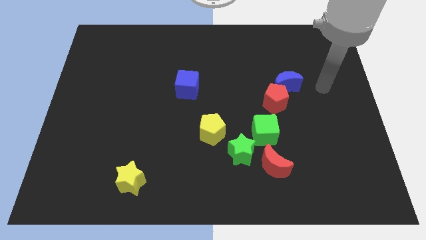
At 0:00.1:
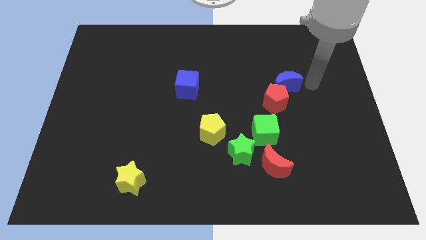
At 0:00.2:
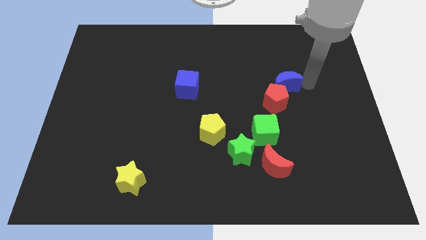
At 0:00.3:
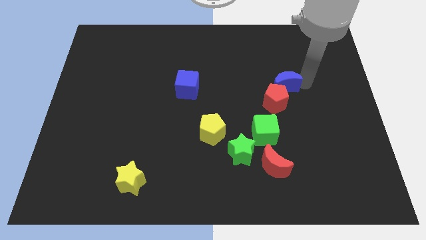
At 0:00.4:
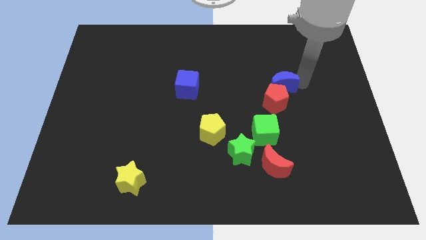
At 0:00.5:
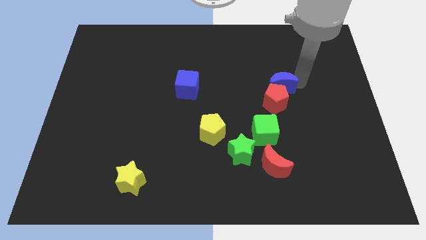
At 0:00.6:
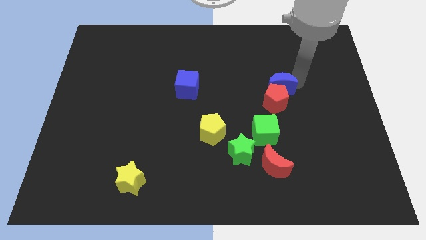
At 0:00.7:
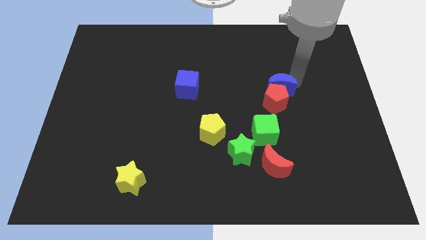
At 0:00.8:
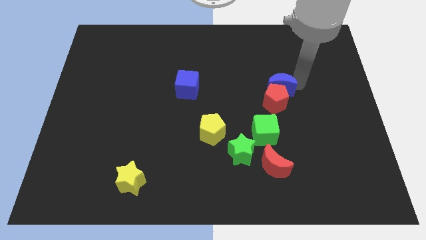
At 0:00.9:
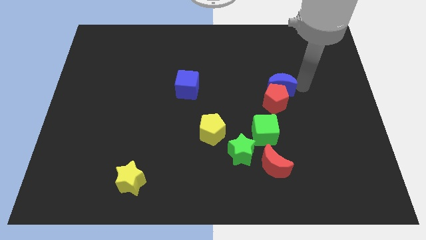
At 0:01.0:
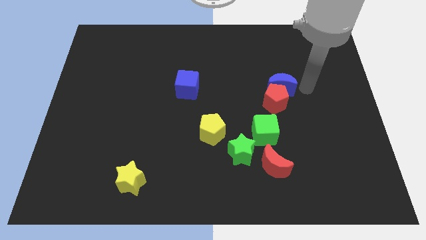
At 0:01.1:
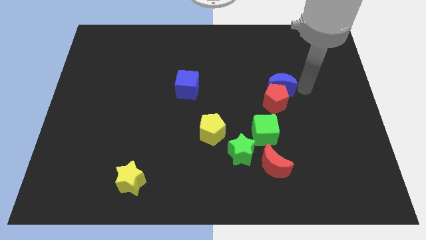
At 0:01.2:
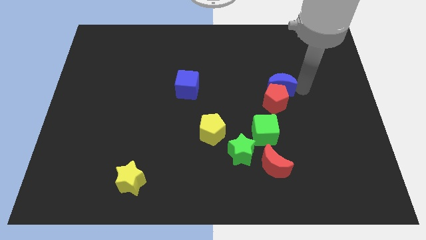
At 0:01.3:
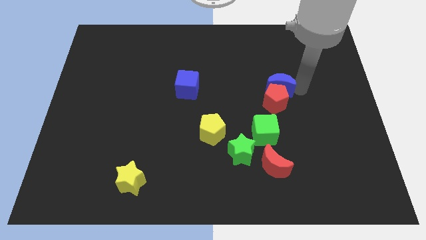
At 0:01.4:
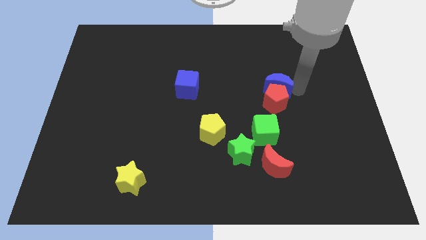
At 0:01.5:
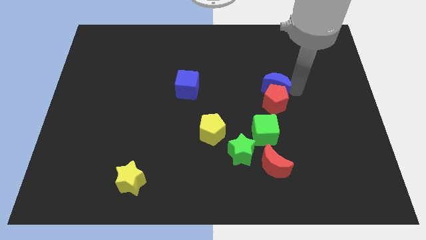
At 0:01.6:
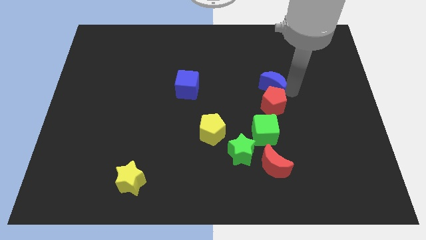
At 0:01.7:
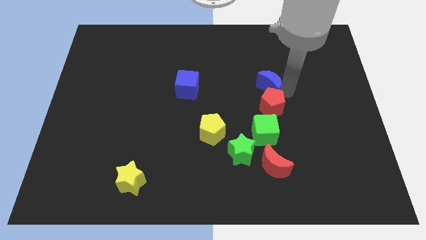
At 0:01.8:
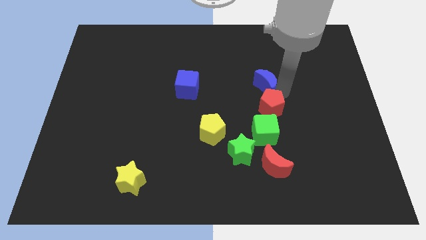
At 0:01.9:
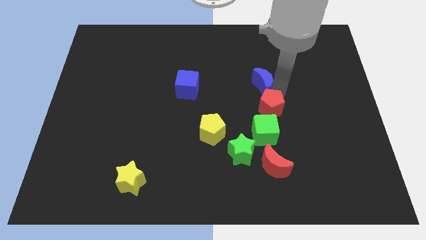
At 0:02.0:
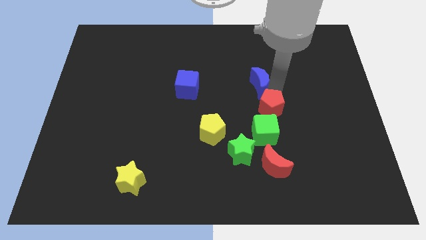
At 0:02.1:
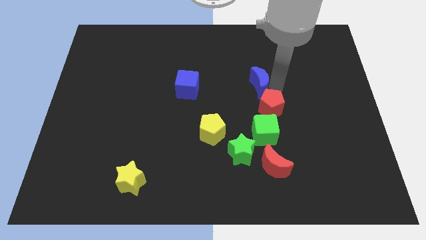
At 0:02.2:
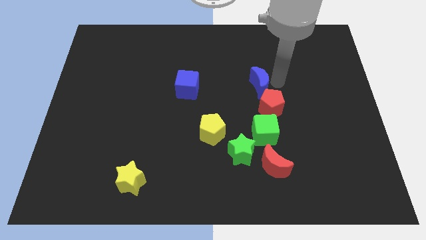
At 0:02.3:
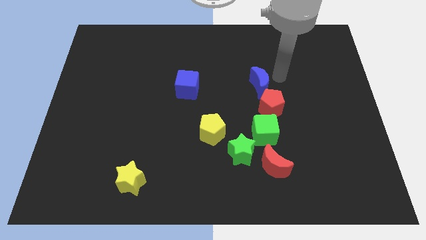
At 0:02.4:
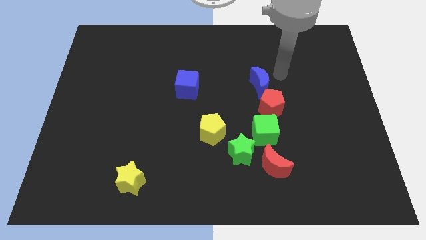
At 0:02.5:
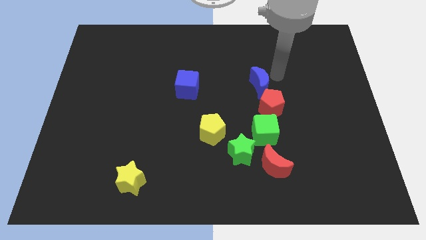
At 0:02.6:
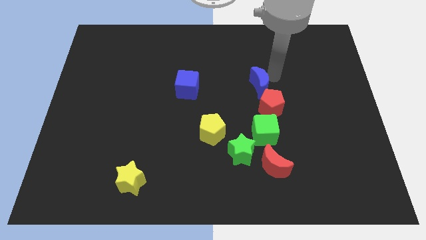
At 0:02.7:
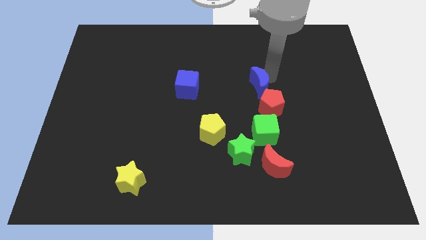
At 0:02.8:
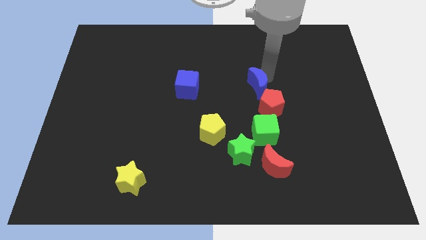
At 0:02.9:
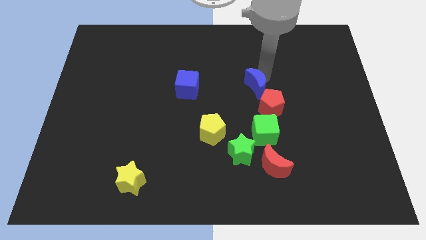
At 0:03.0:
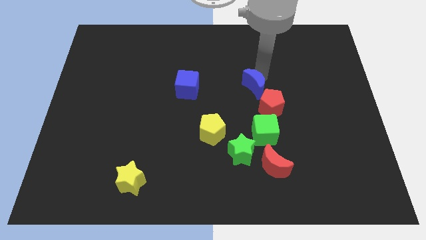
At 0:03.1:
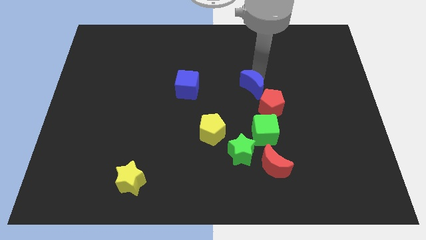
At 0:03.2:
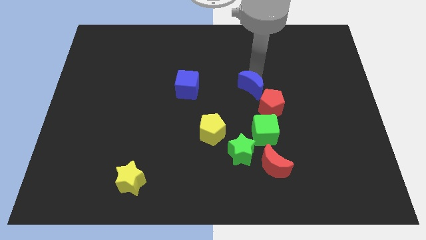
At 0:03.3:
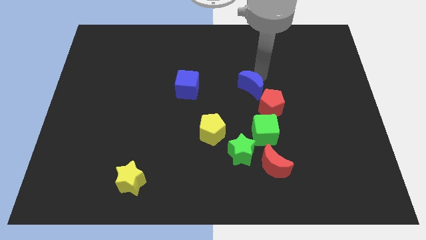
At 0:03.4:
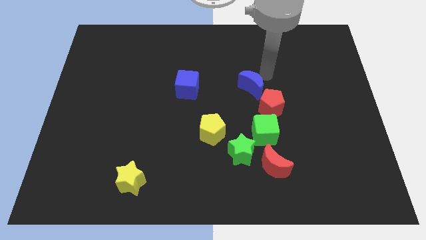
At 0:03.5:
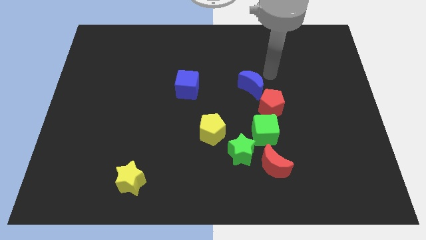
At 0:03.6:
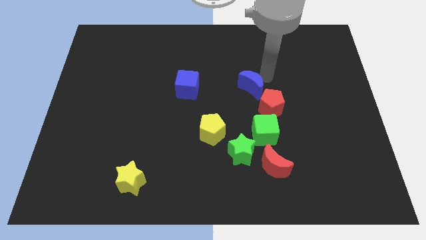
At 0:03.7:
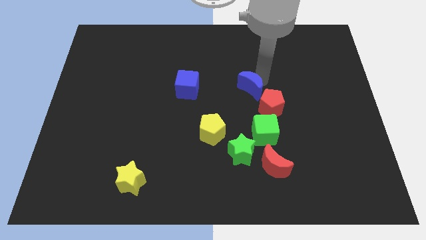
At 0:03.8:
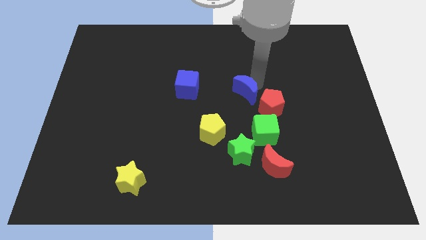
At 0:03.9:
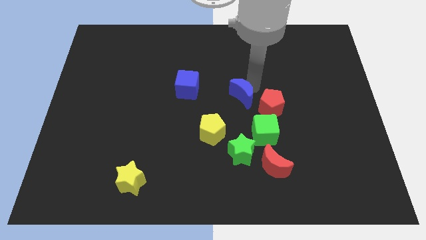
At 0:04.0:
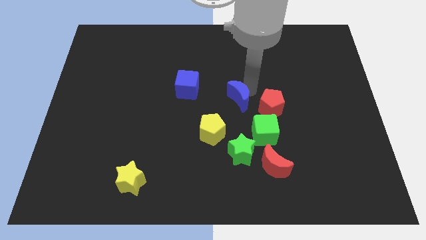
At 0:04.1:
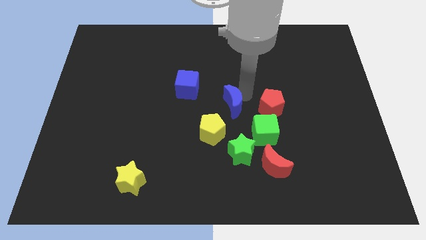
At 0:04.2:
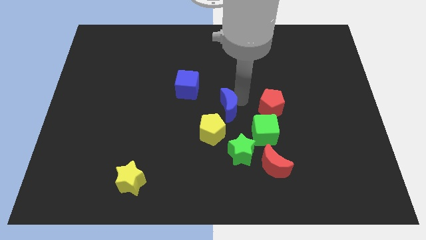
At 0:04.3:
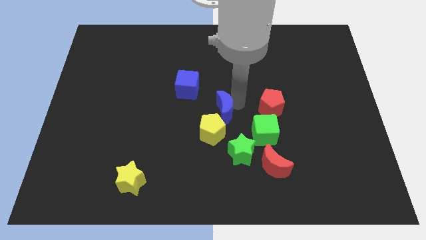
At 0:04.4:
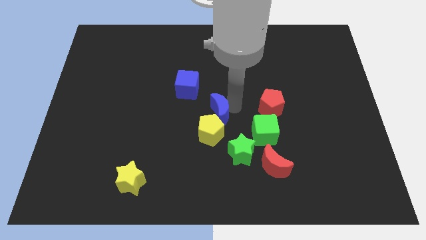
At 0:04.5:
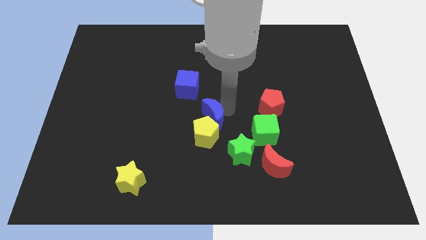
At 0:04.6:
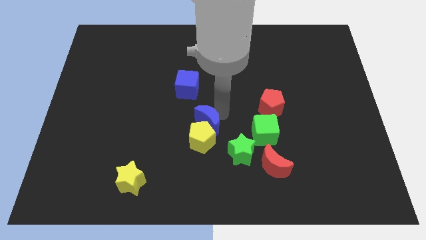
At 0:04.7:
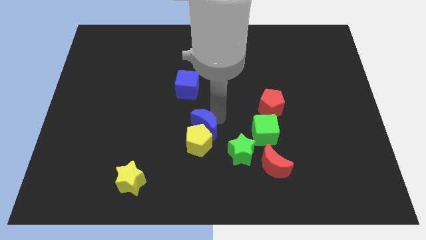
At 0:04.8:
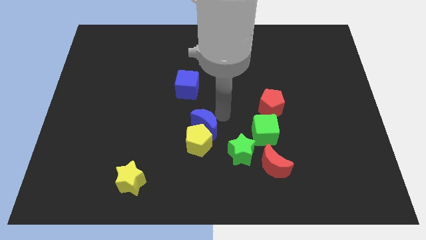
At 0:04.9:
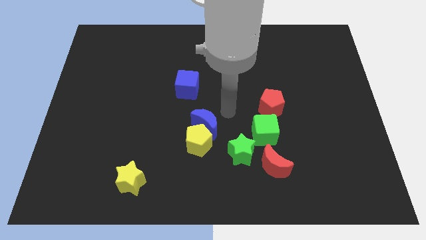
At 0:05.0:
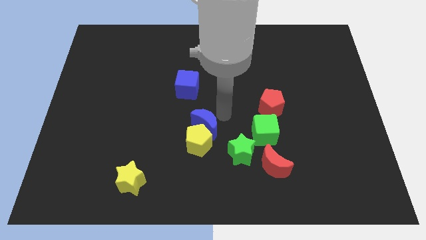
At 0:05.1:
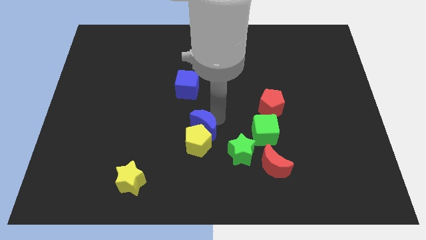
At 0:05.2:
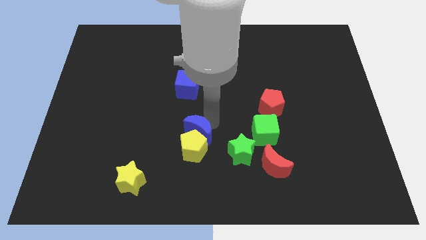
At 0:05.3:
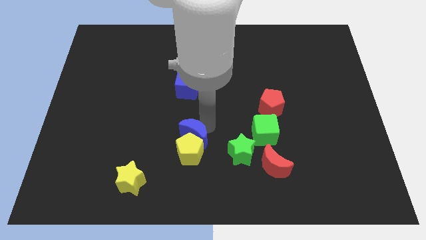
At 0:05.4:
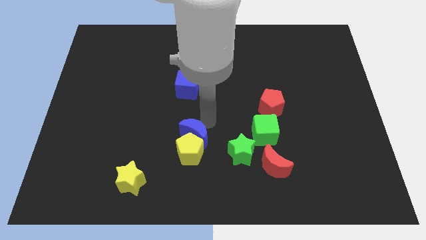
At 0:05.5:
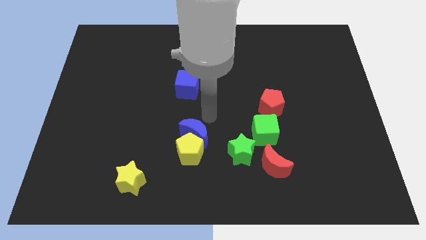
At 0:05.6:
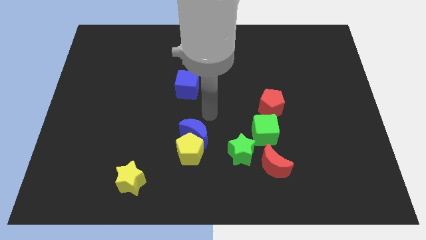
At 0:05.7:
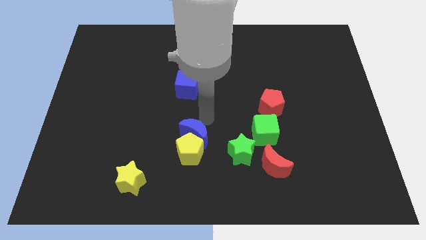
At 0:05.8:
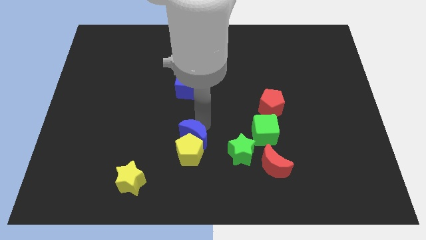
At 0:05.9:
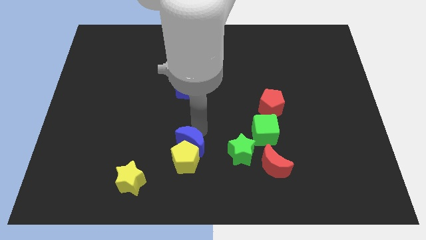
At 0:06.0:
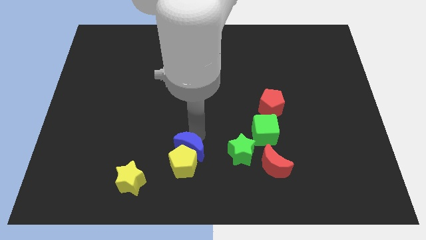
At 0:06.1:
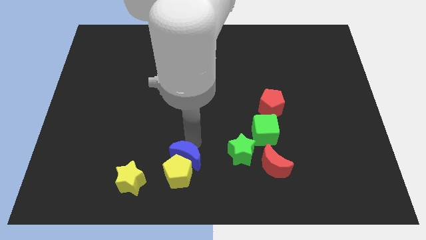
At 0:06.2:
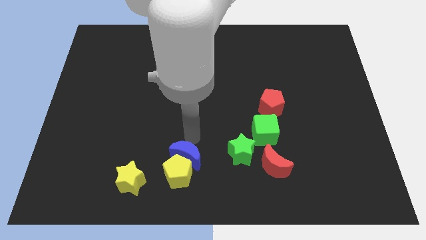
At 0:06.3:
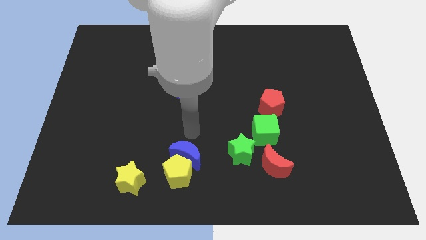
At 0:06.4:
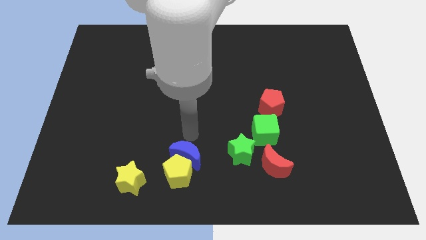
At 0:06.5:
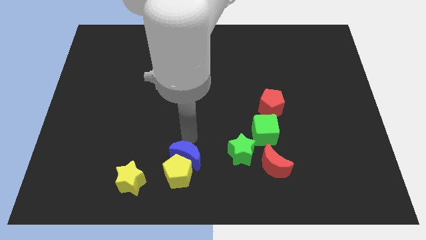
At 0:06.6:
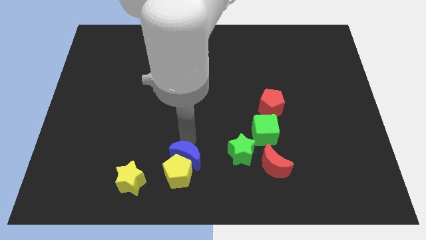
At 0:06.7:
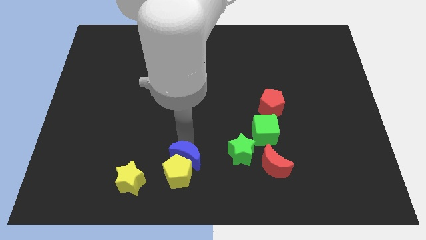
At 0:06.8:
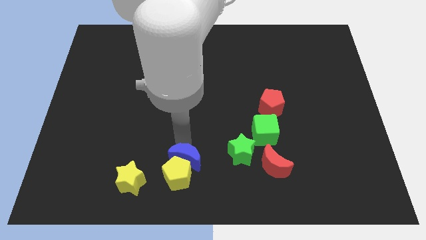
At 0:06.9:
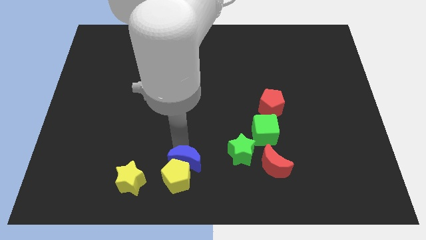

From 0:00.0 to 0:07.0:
push the blue moon to the right side of the yellow star
